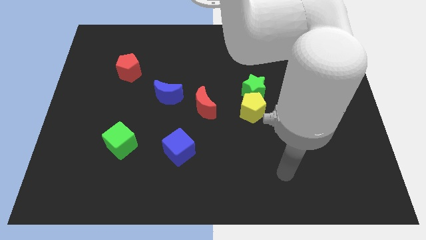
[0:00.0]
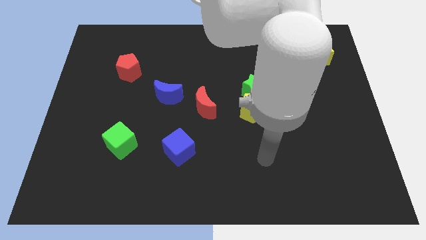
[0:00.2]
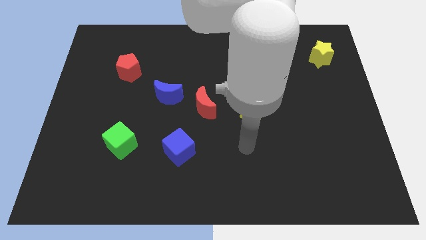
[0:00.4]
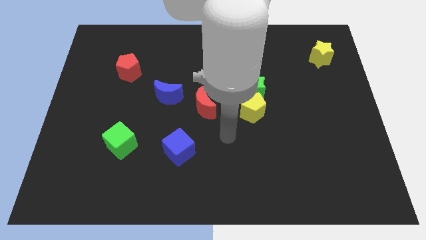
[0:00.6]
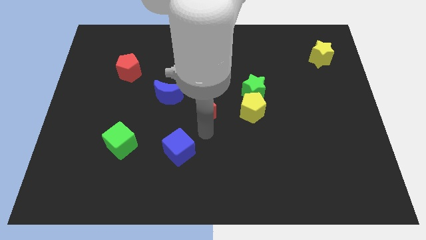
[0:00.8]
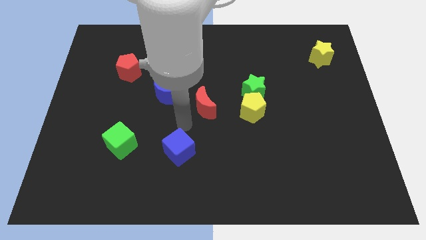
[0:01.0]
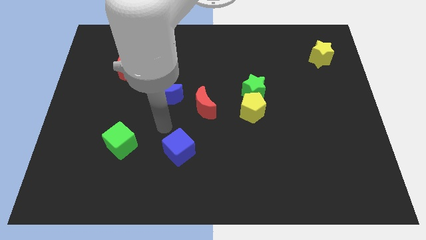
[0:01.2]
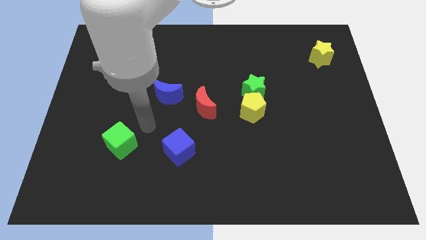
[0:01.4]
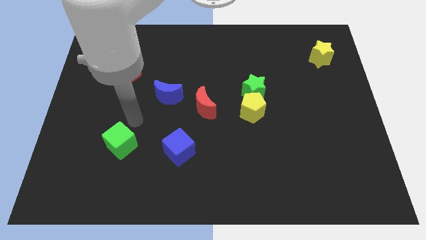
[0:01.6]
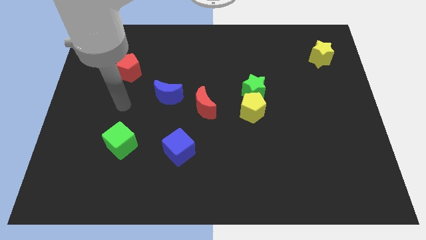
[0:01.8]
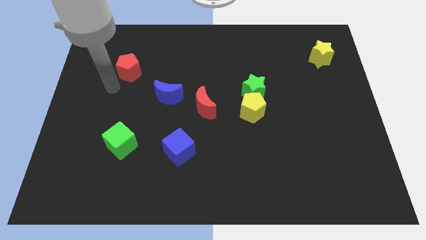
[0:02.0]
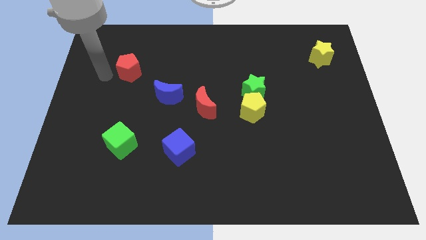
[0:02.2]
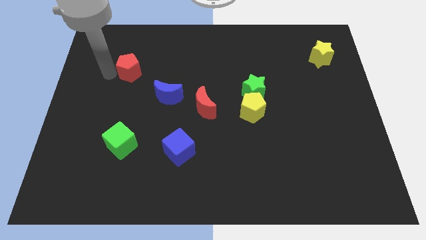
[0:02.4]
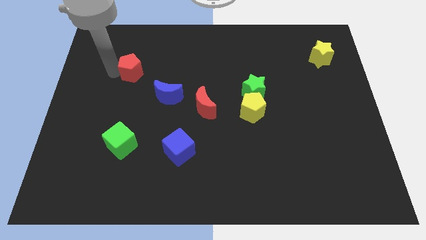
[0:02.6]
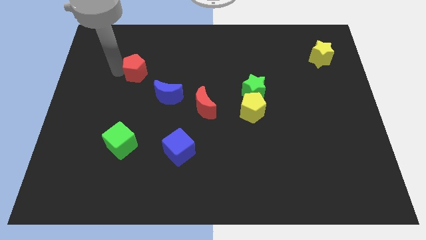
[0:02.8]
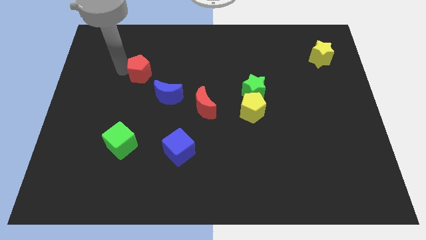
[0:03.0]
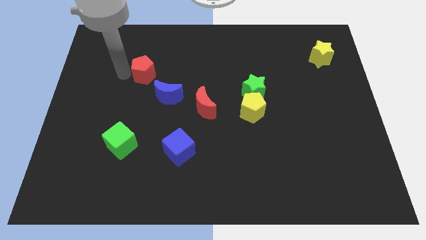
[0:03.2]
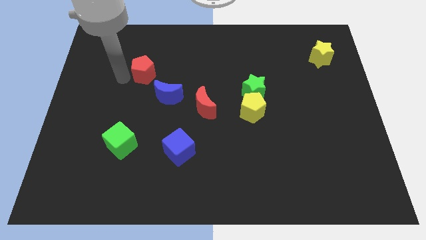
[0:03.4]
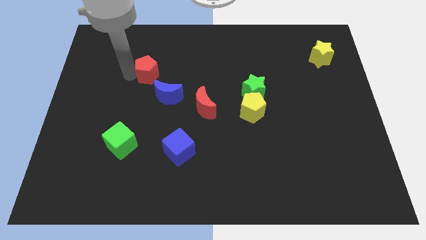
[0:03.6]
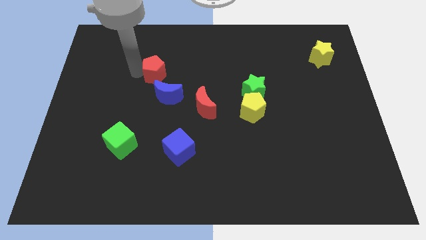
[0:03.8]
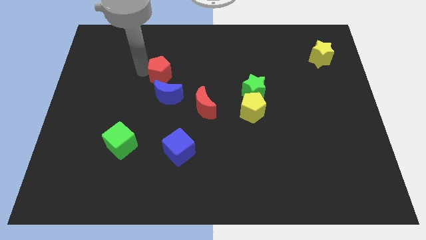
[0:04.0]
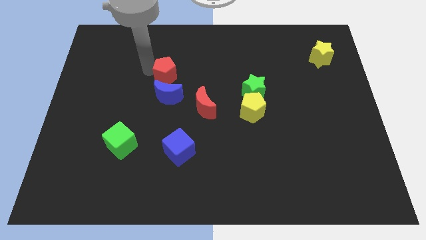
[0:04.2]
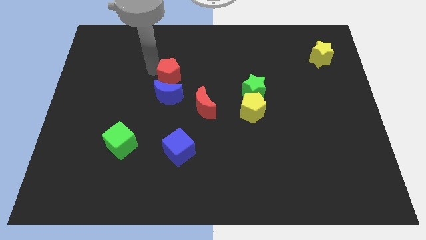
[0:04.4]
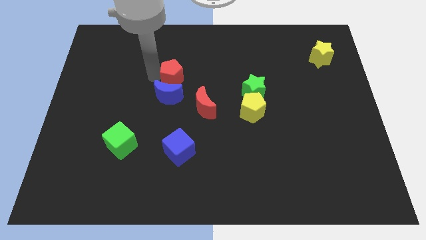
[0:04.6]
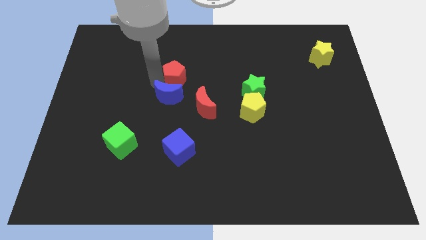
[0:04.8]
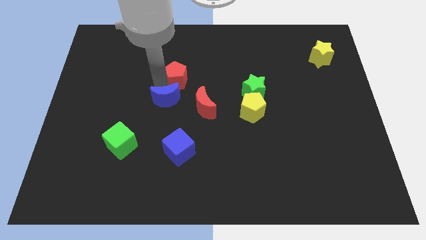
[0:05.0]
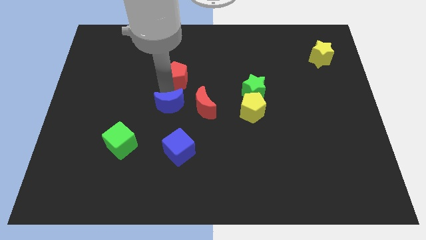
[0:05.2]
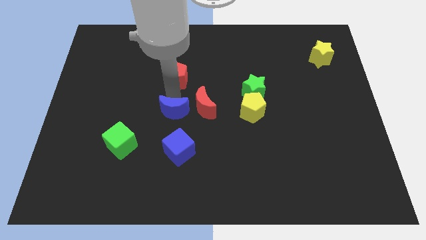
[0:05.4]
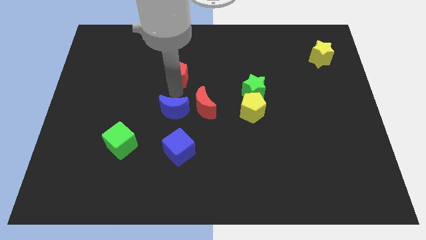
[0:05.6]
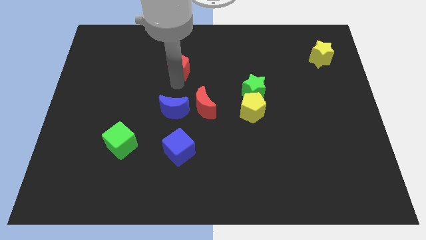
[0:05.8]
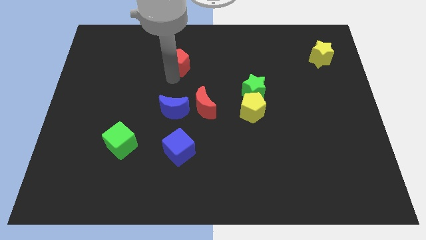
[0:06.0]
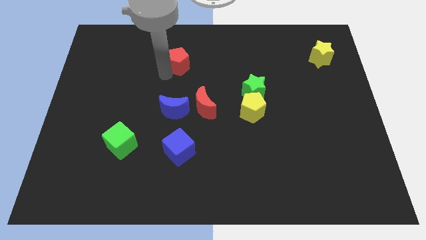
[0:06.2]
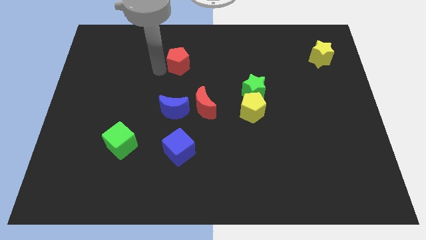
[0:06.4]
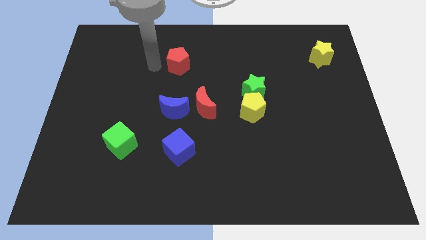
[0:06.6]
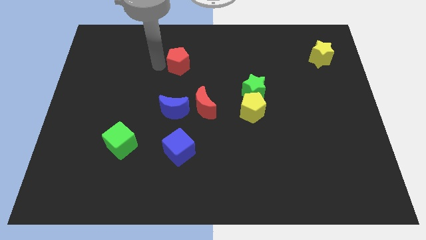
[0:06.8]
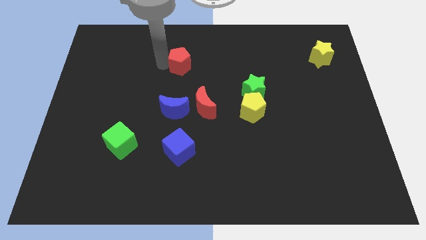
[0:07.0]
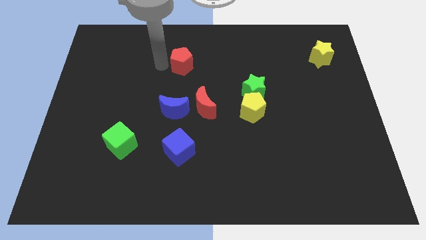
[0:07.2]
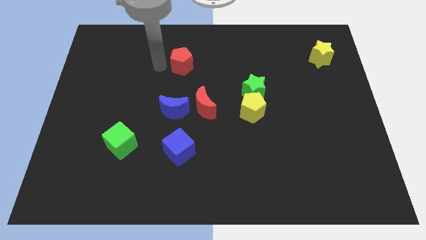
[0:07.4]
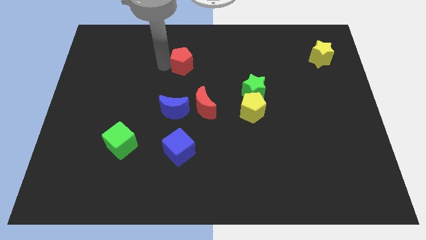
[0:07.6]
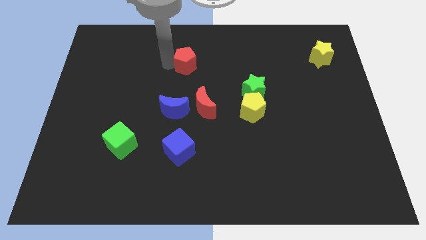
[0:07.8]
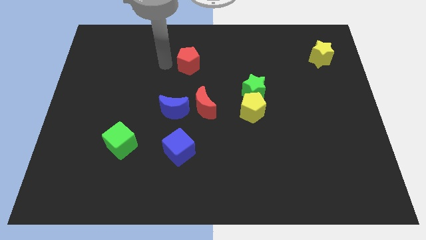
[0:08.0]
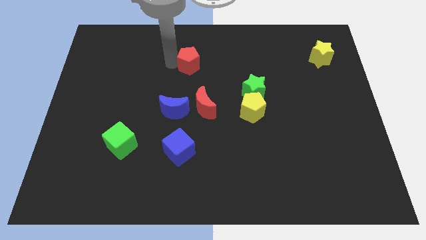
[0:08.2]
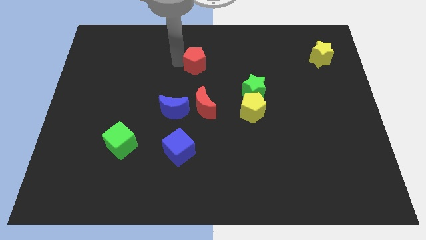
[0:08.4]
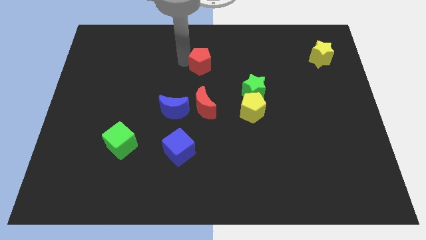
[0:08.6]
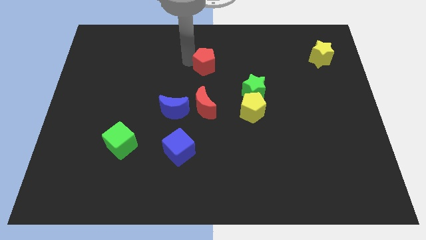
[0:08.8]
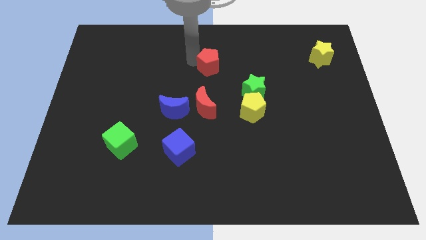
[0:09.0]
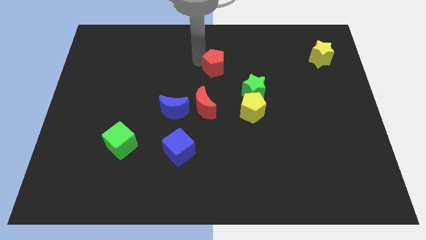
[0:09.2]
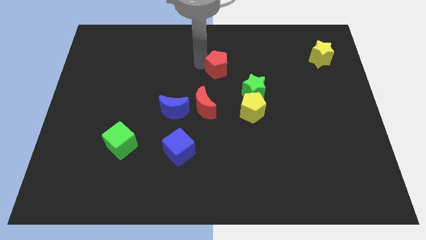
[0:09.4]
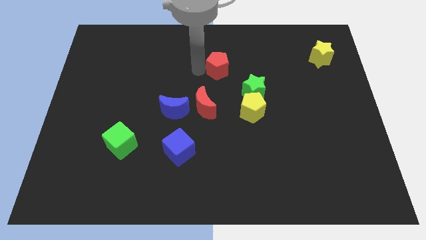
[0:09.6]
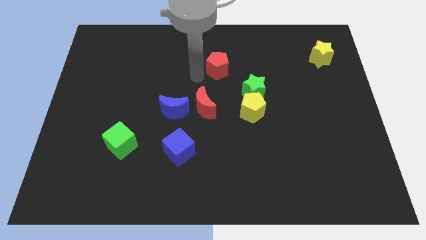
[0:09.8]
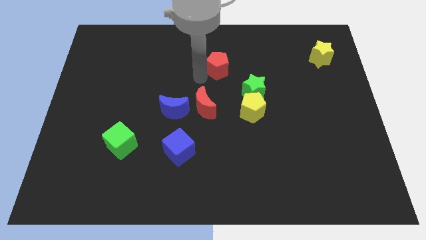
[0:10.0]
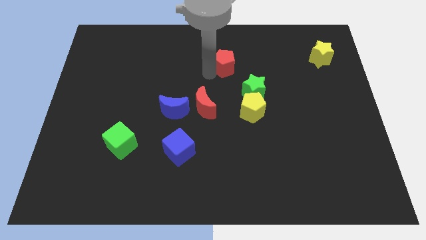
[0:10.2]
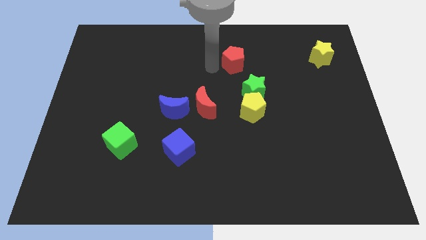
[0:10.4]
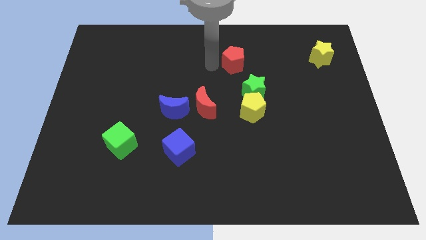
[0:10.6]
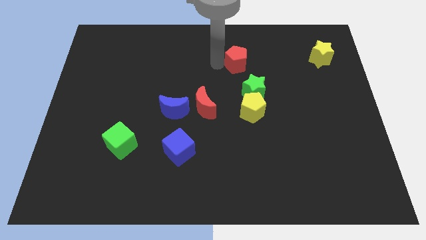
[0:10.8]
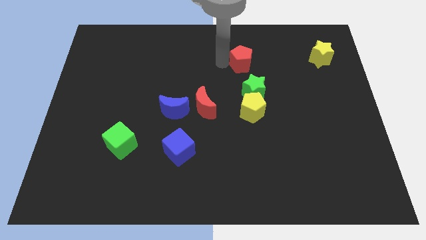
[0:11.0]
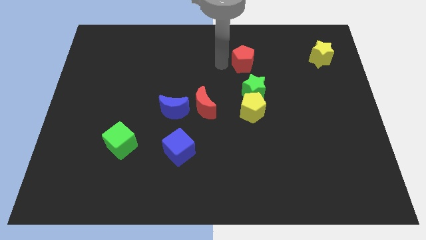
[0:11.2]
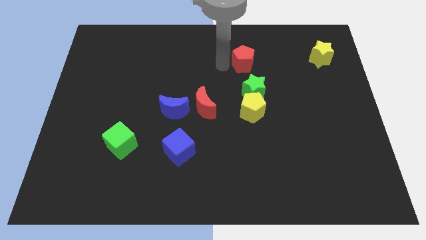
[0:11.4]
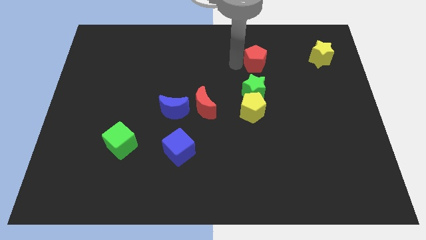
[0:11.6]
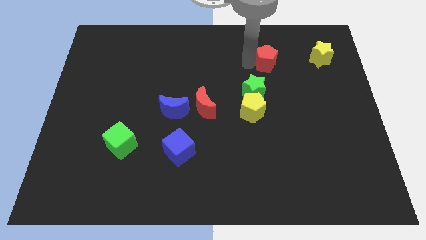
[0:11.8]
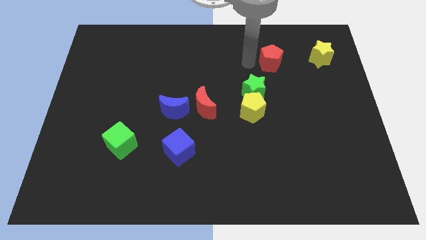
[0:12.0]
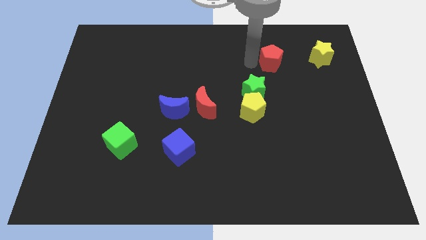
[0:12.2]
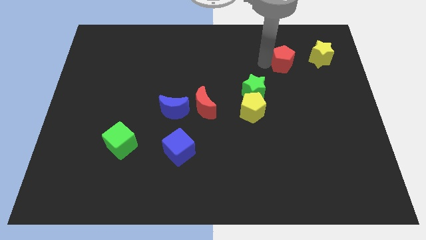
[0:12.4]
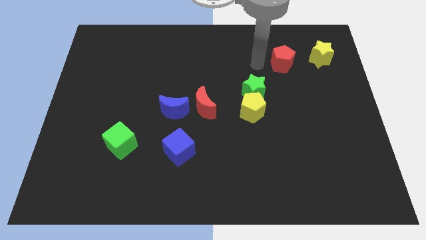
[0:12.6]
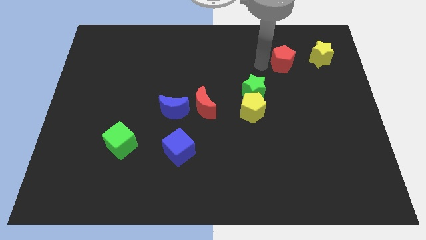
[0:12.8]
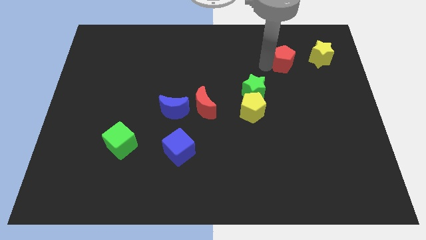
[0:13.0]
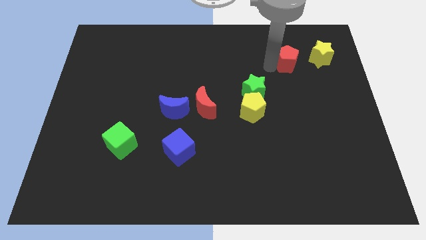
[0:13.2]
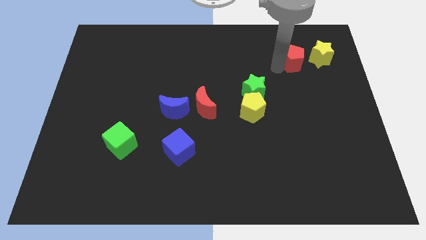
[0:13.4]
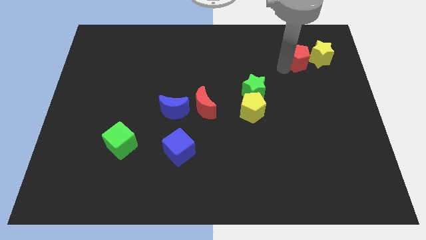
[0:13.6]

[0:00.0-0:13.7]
slide the red pentagon to the yellow star

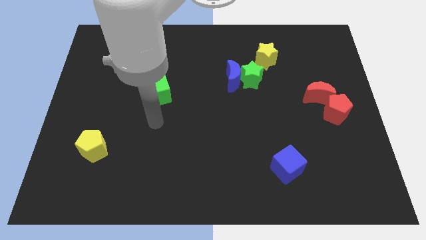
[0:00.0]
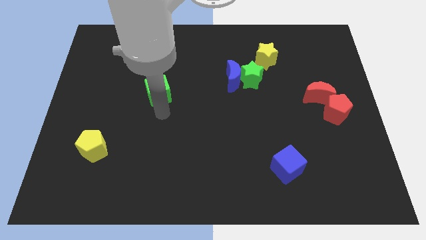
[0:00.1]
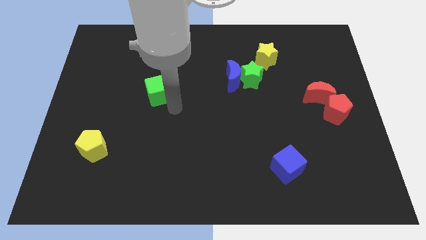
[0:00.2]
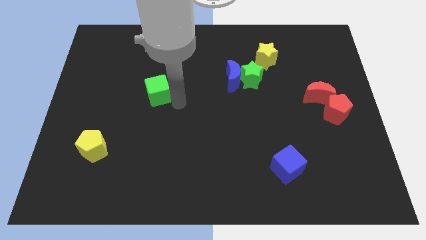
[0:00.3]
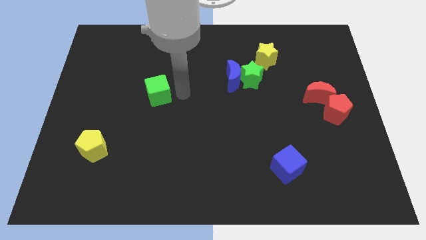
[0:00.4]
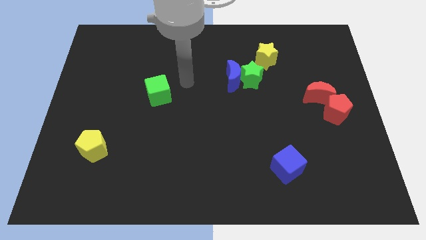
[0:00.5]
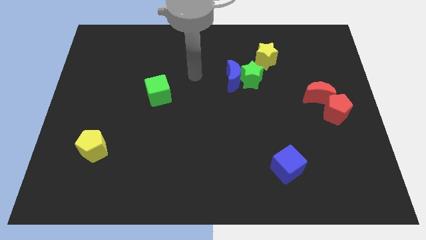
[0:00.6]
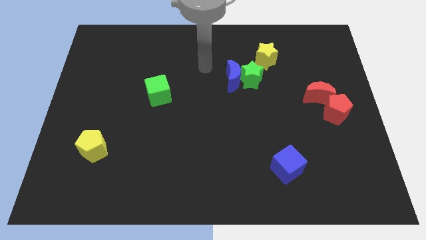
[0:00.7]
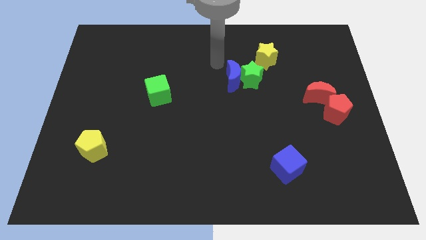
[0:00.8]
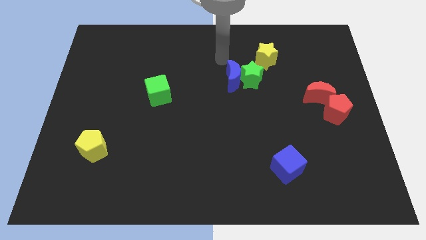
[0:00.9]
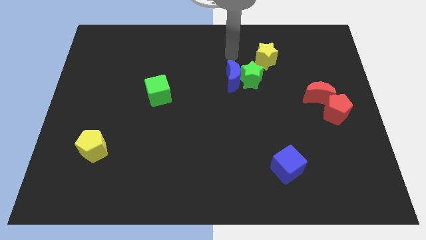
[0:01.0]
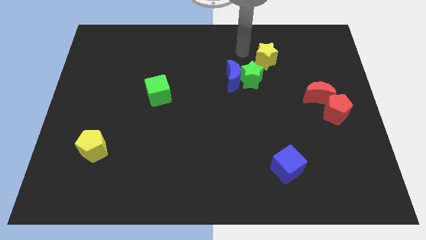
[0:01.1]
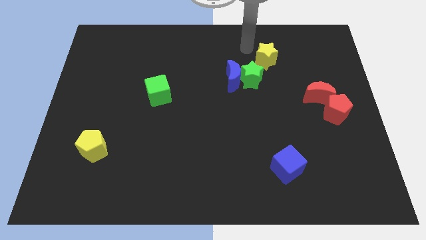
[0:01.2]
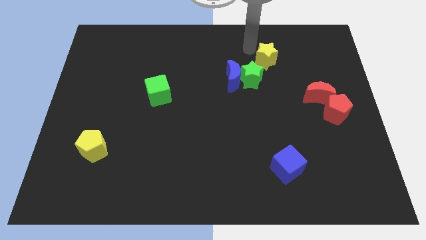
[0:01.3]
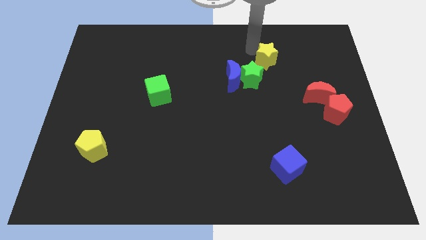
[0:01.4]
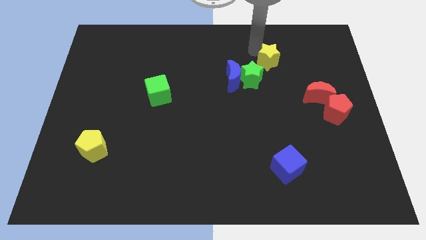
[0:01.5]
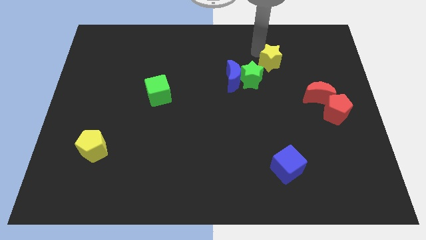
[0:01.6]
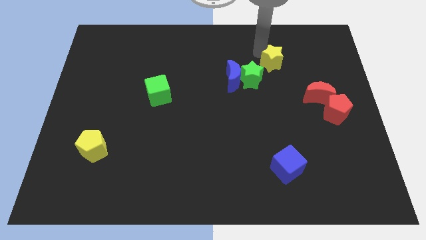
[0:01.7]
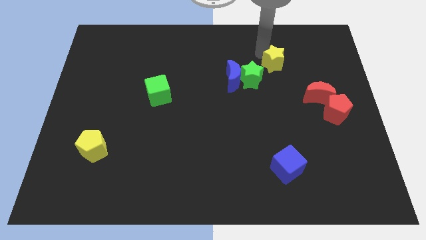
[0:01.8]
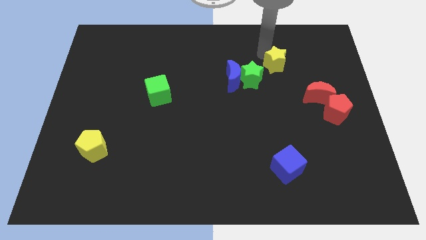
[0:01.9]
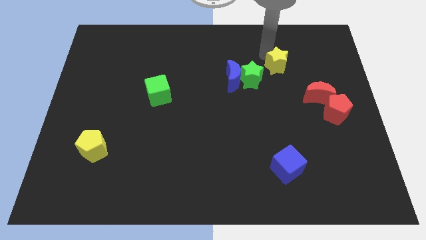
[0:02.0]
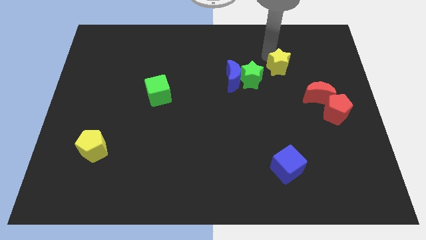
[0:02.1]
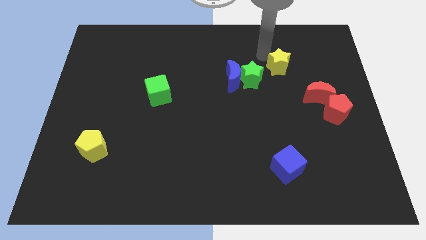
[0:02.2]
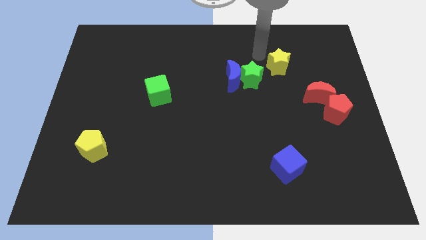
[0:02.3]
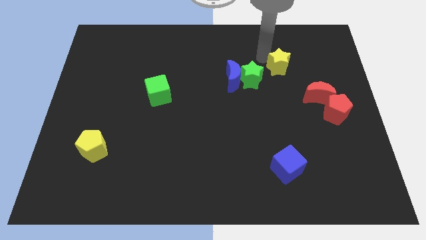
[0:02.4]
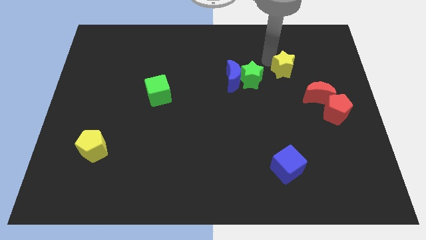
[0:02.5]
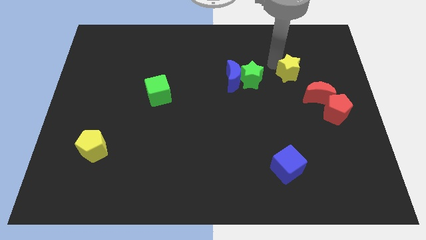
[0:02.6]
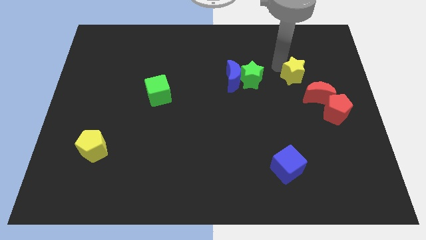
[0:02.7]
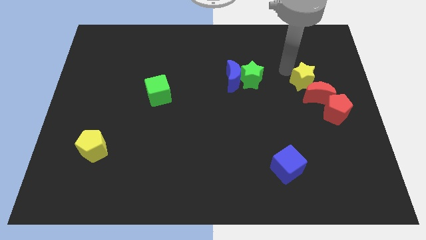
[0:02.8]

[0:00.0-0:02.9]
move the yellow star close to the red moon
